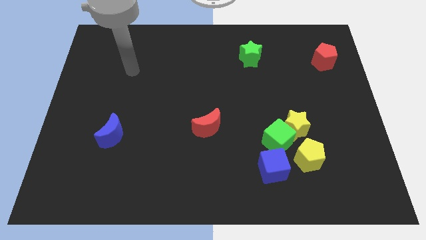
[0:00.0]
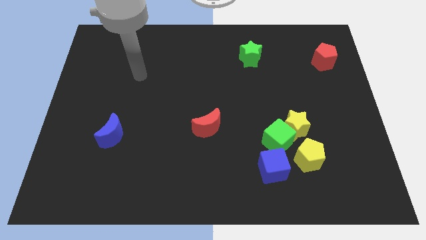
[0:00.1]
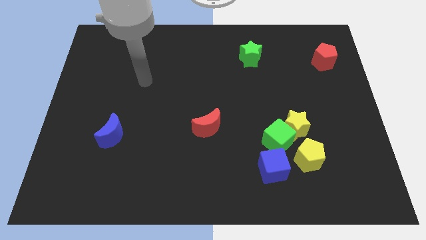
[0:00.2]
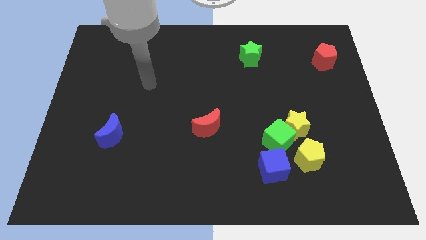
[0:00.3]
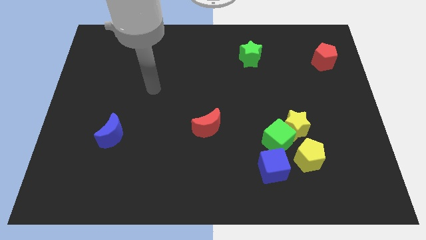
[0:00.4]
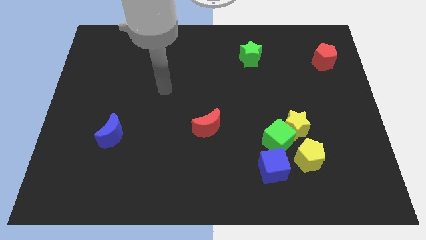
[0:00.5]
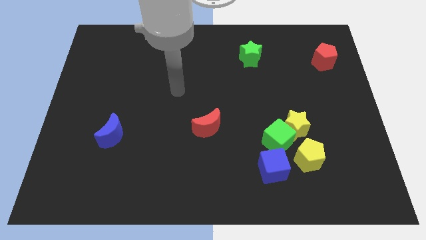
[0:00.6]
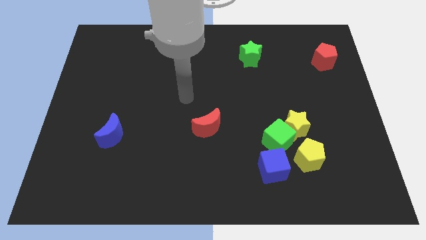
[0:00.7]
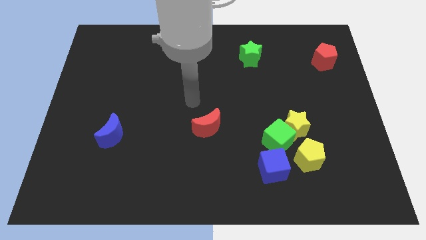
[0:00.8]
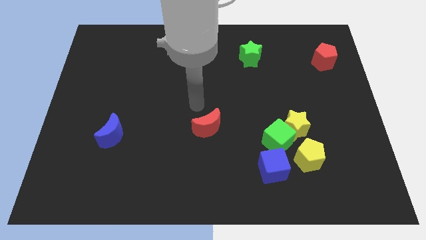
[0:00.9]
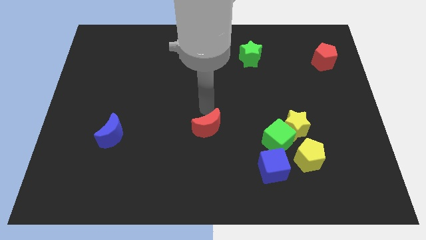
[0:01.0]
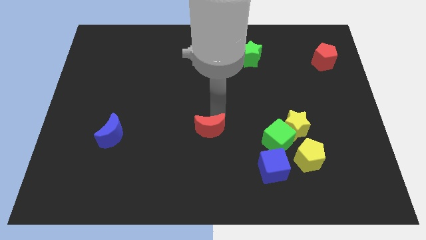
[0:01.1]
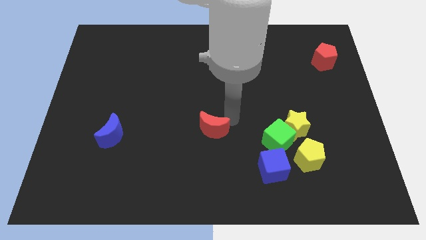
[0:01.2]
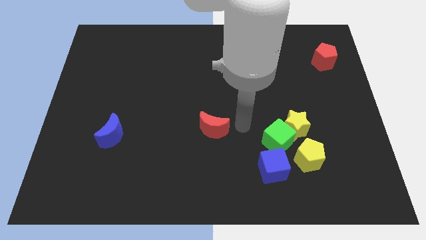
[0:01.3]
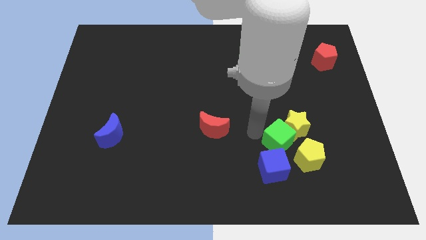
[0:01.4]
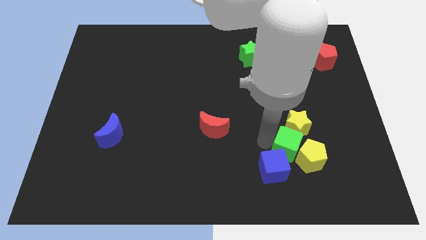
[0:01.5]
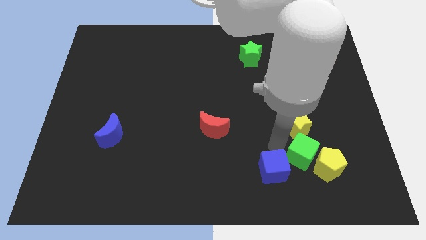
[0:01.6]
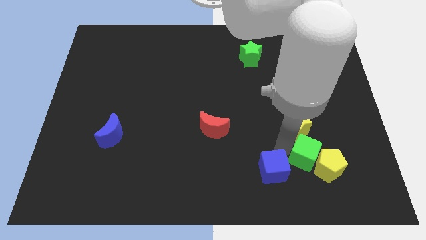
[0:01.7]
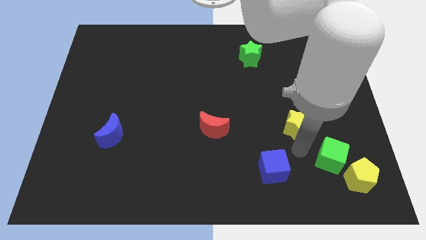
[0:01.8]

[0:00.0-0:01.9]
pull the yellow star apart from the green cube and yellow pentagon

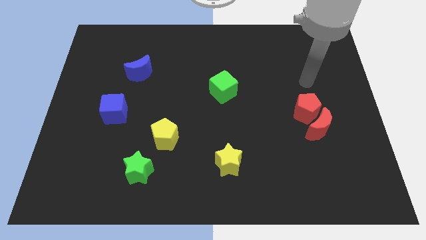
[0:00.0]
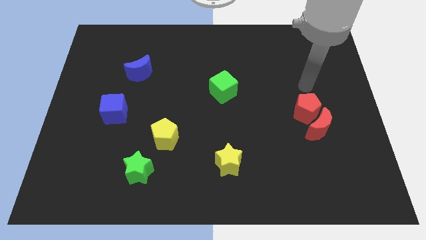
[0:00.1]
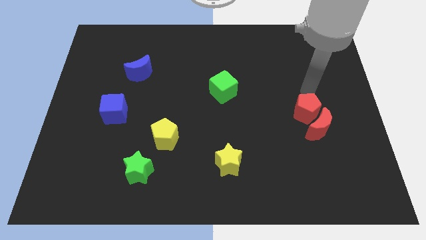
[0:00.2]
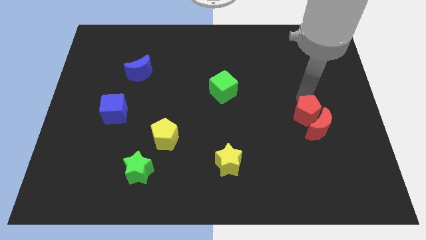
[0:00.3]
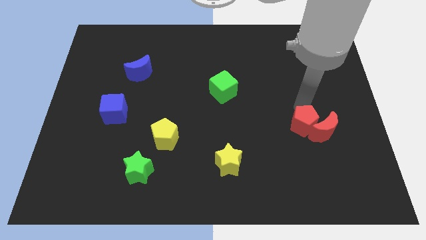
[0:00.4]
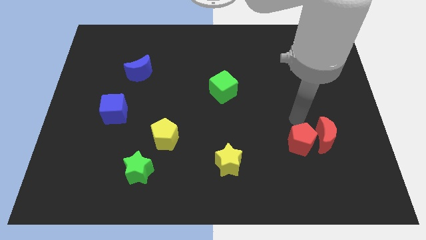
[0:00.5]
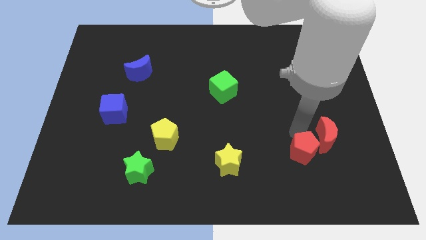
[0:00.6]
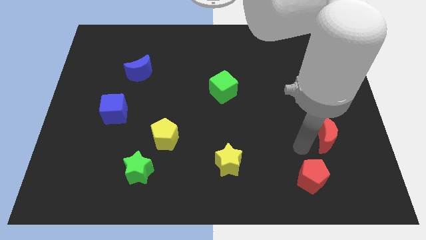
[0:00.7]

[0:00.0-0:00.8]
move the red moon away from the red pentagon

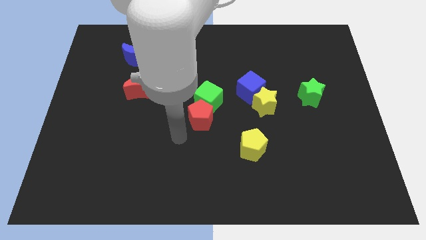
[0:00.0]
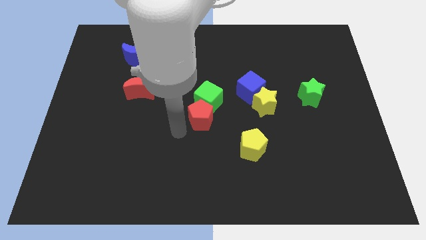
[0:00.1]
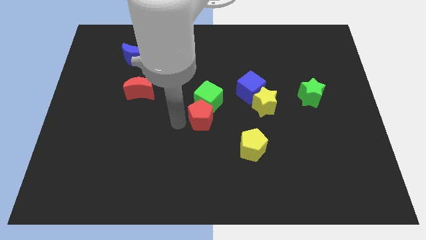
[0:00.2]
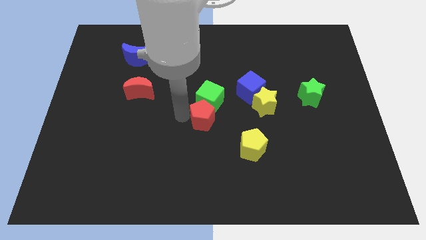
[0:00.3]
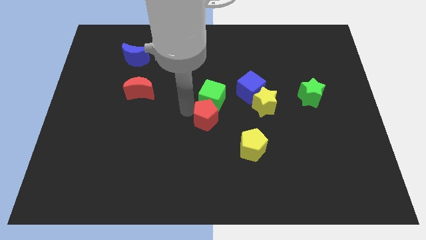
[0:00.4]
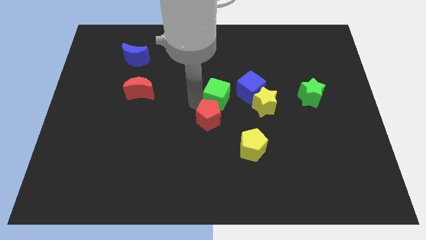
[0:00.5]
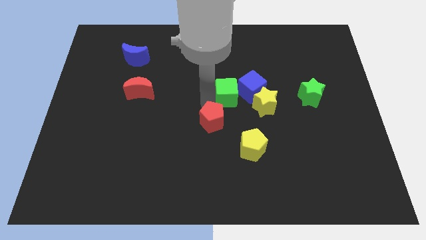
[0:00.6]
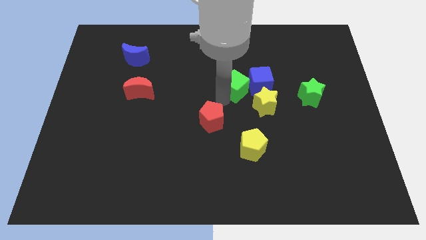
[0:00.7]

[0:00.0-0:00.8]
pull the red pentagon apart from the green cube

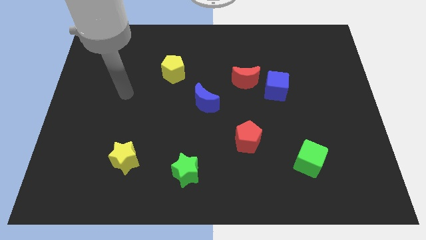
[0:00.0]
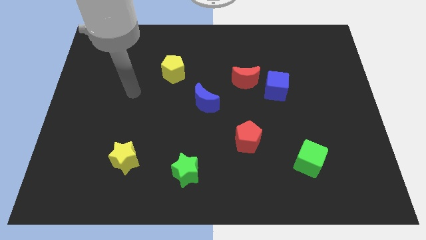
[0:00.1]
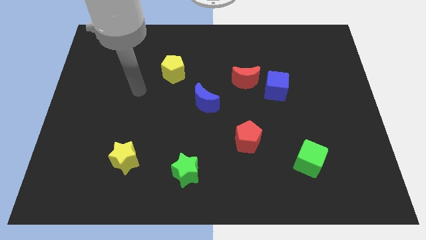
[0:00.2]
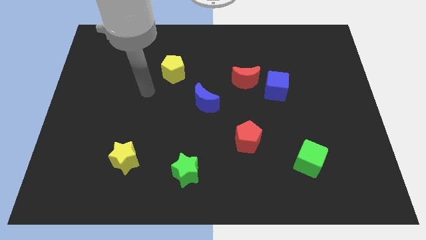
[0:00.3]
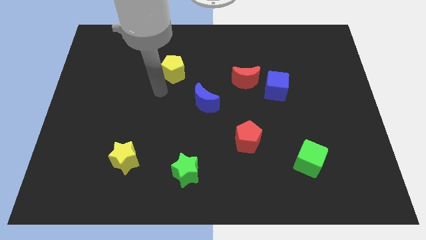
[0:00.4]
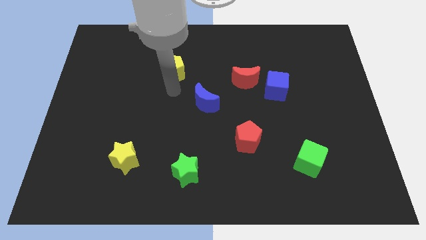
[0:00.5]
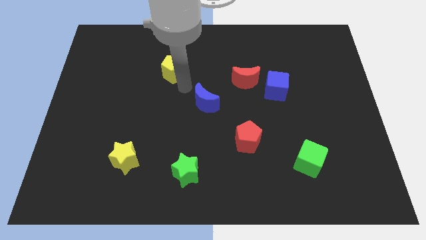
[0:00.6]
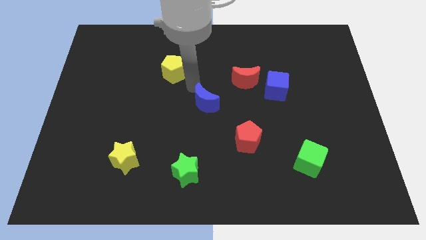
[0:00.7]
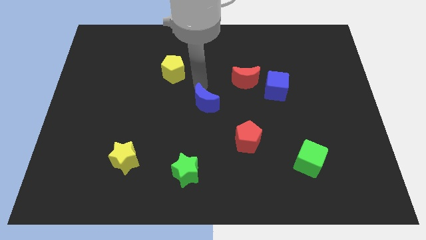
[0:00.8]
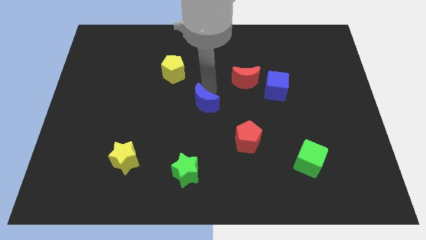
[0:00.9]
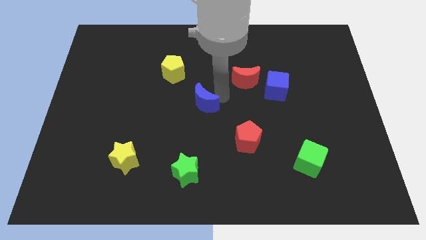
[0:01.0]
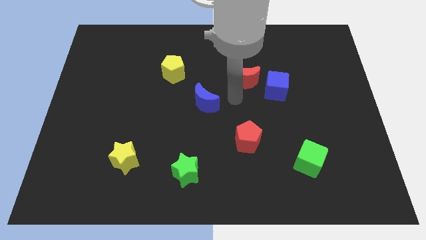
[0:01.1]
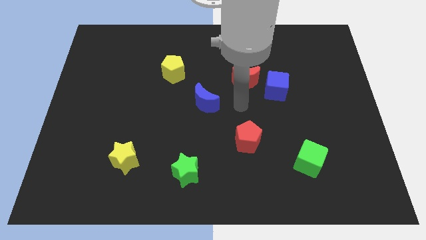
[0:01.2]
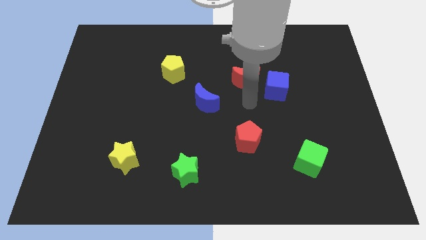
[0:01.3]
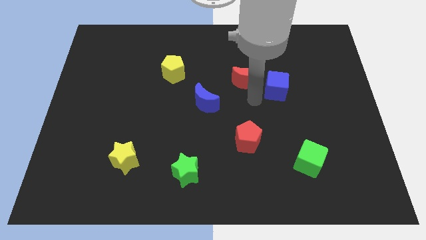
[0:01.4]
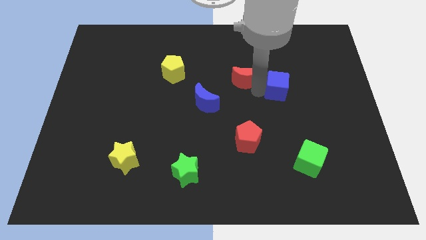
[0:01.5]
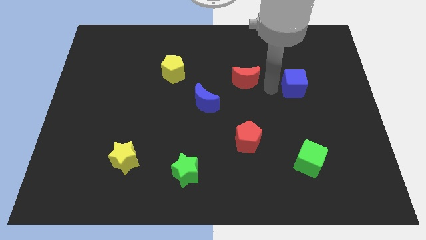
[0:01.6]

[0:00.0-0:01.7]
move the red moon away from the blue cube

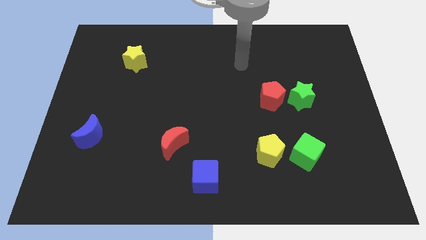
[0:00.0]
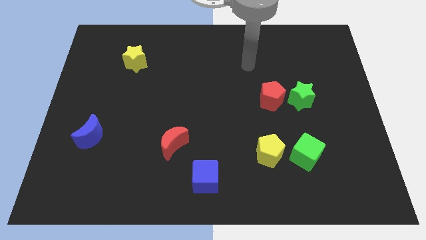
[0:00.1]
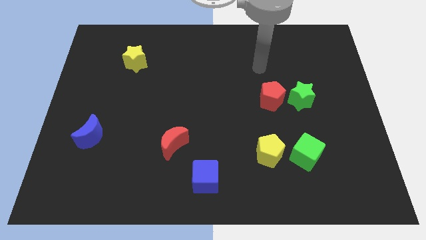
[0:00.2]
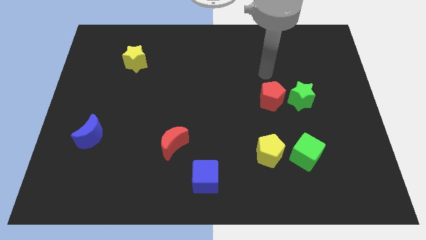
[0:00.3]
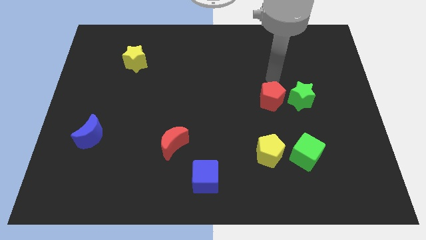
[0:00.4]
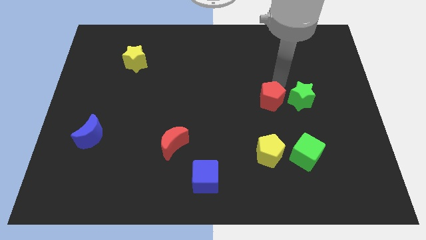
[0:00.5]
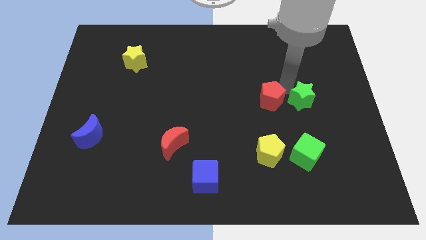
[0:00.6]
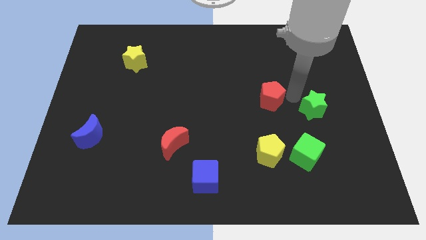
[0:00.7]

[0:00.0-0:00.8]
move the red pentagon away from the green star

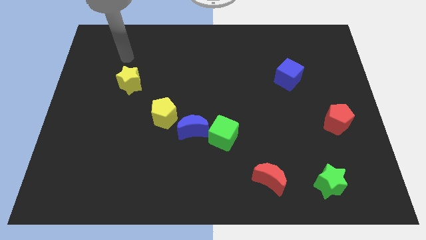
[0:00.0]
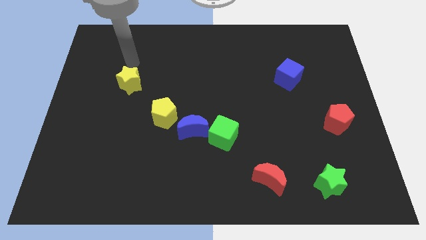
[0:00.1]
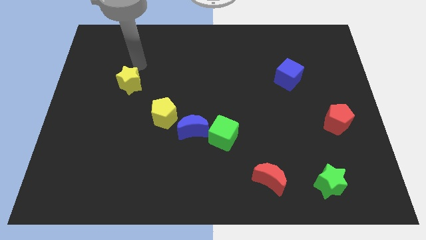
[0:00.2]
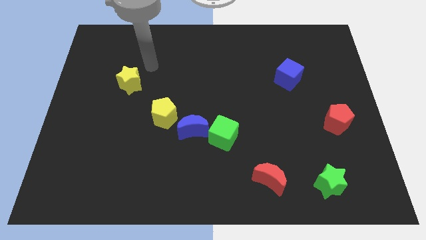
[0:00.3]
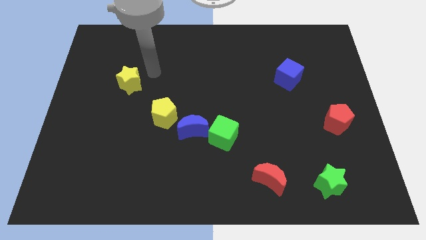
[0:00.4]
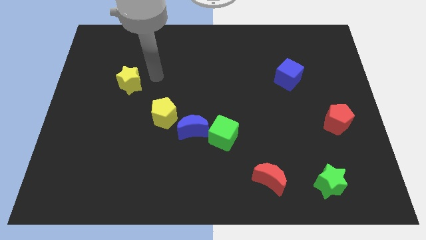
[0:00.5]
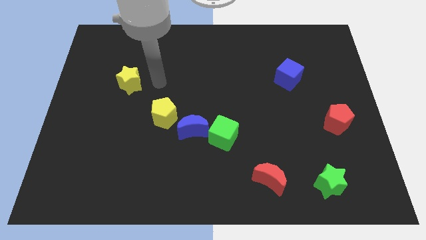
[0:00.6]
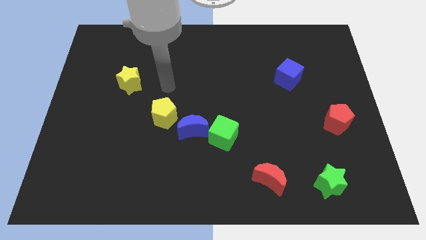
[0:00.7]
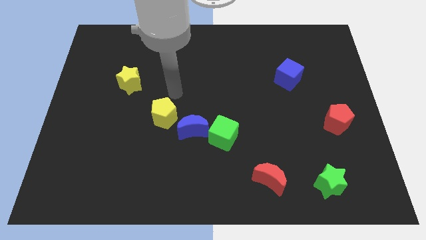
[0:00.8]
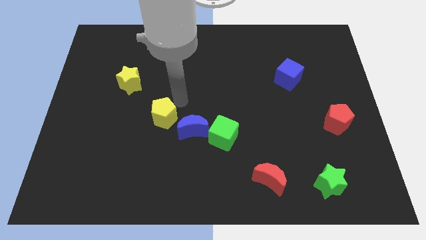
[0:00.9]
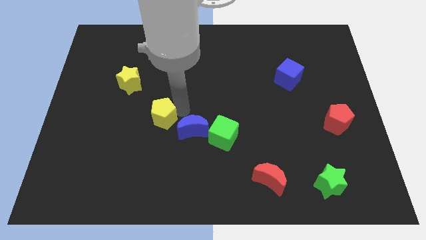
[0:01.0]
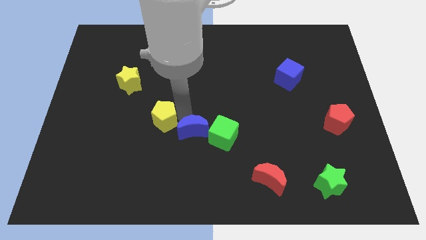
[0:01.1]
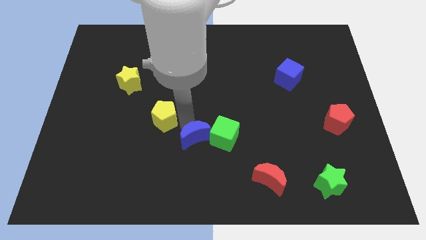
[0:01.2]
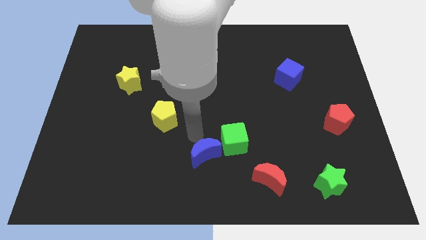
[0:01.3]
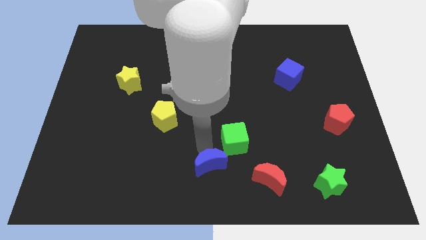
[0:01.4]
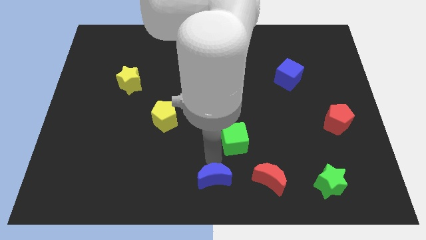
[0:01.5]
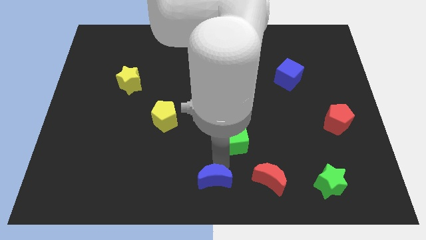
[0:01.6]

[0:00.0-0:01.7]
pull the green cube apart from the blue moon

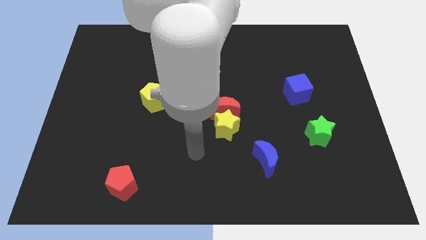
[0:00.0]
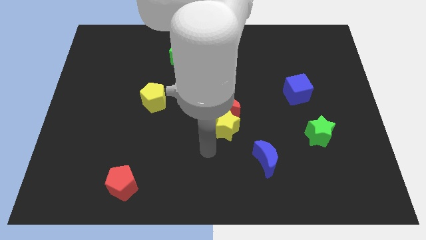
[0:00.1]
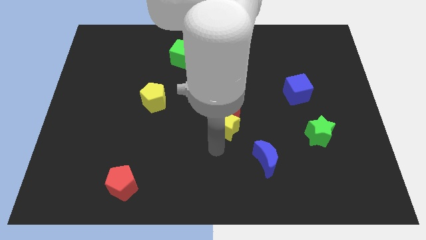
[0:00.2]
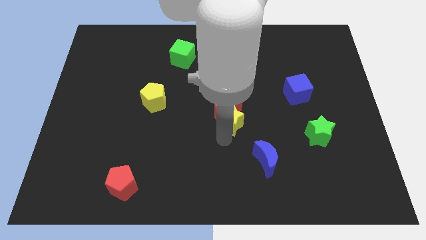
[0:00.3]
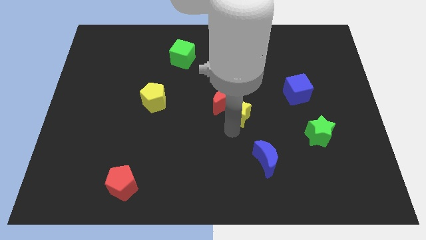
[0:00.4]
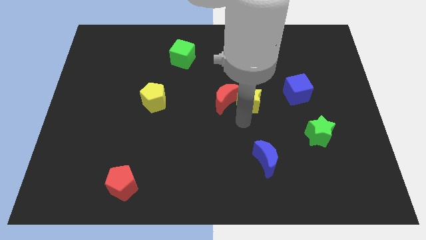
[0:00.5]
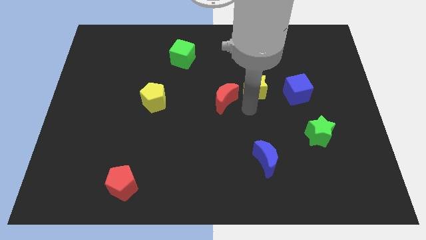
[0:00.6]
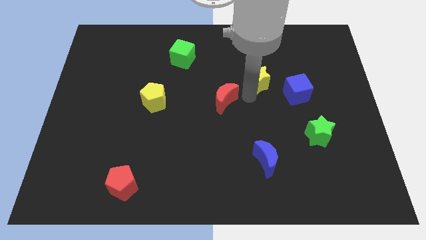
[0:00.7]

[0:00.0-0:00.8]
separate the red moon from the yellow star

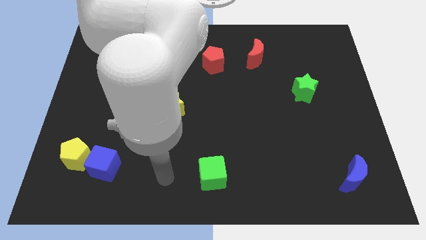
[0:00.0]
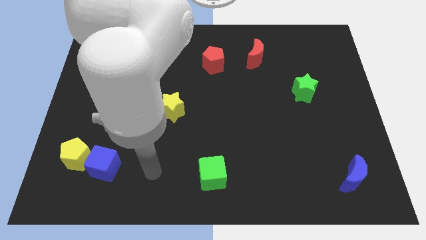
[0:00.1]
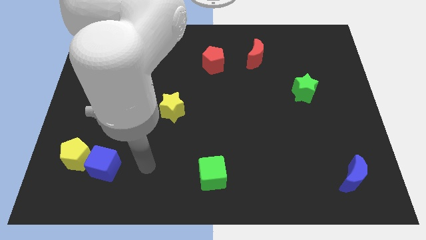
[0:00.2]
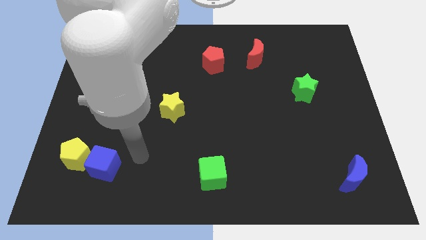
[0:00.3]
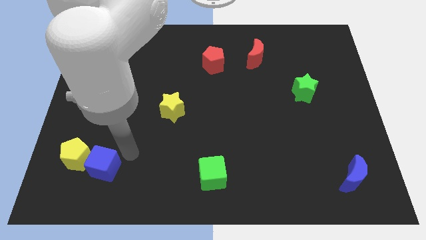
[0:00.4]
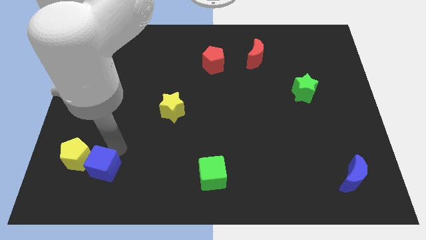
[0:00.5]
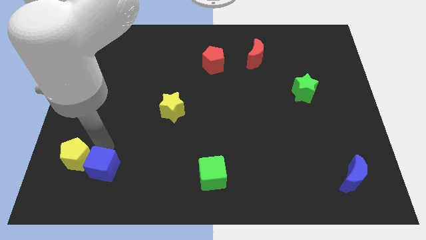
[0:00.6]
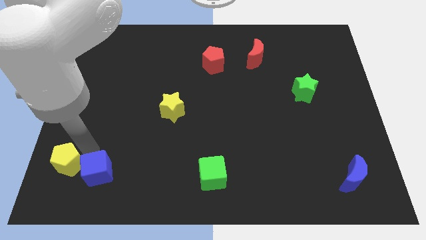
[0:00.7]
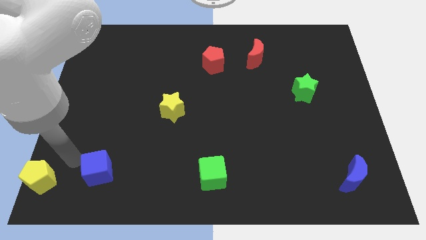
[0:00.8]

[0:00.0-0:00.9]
move the blue cube away from the yellow pentagon
